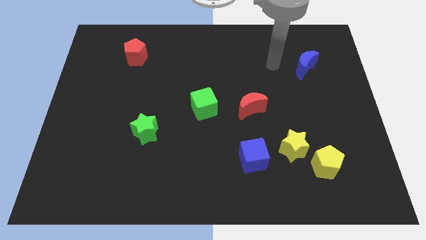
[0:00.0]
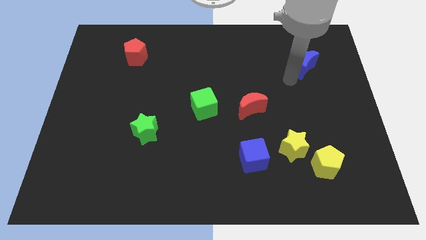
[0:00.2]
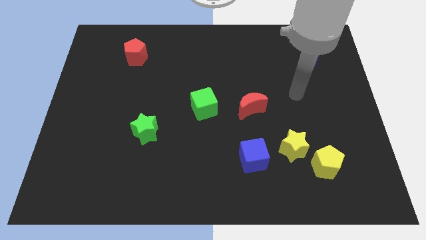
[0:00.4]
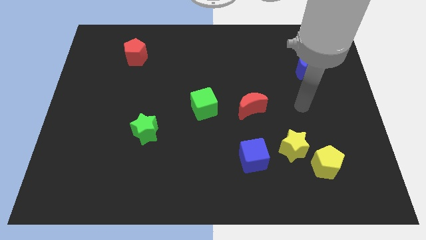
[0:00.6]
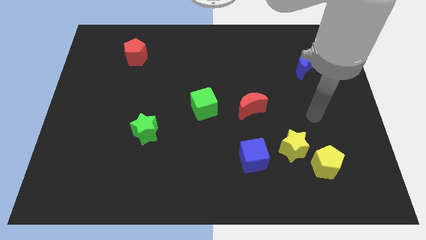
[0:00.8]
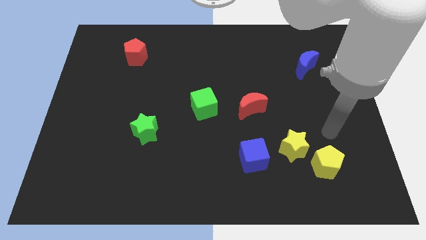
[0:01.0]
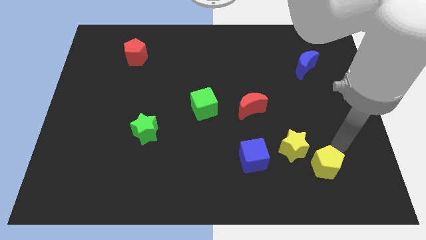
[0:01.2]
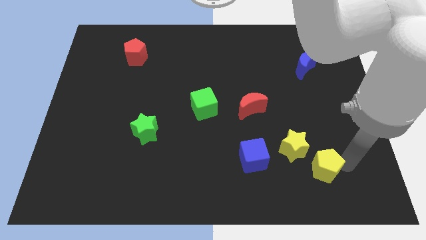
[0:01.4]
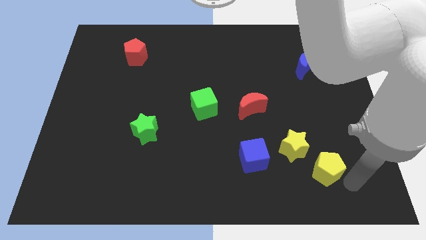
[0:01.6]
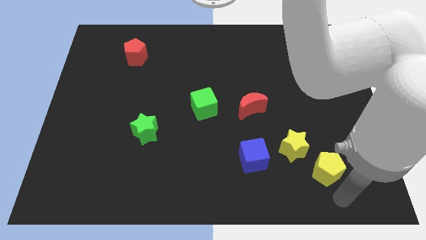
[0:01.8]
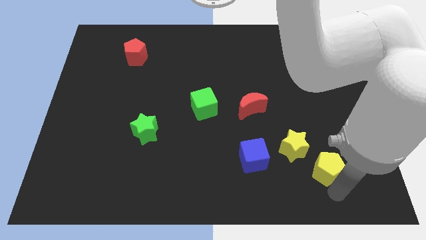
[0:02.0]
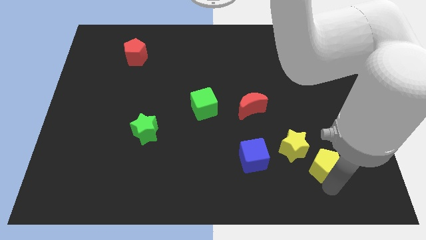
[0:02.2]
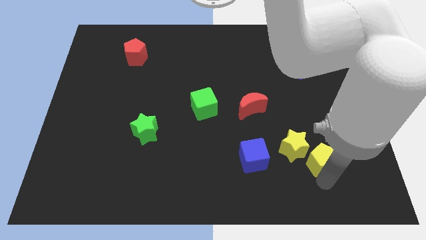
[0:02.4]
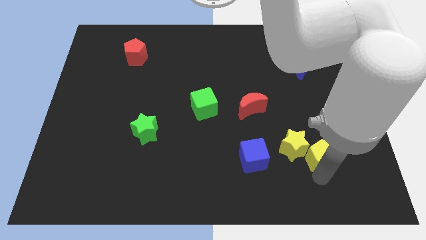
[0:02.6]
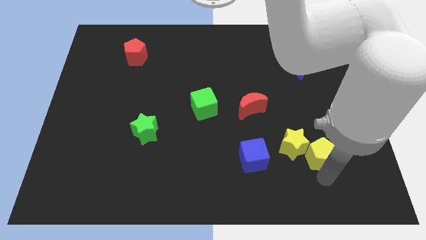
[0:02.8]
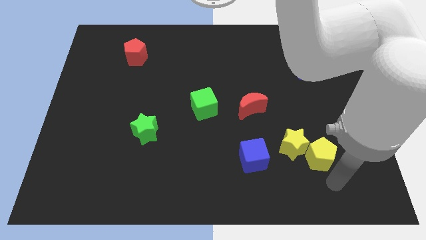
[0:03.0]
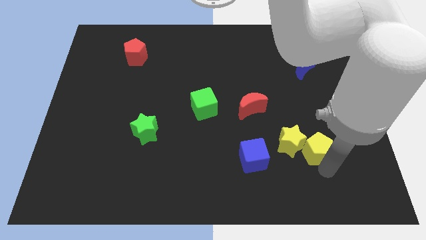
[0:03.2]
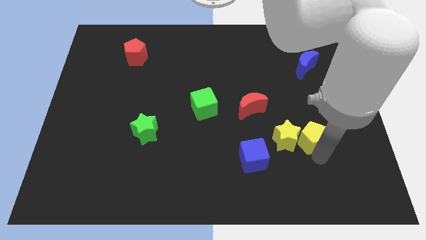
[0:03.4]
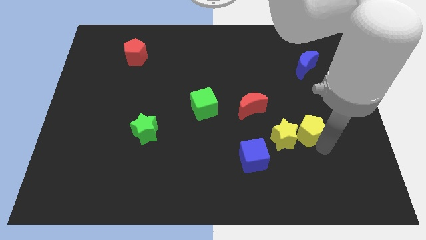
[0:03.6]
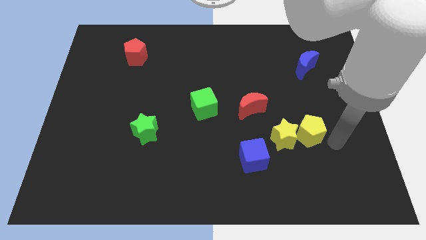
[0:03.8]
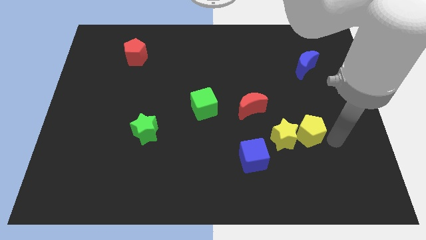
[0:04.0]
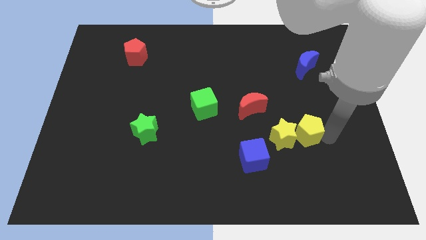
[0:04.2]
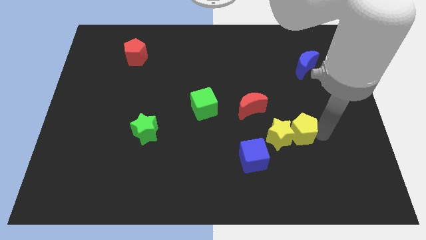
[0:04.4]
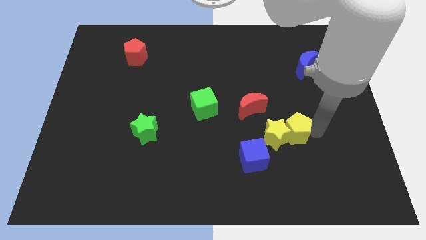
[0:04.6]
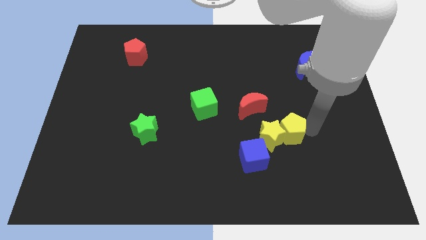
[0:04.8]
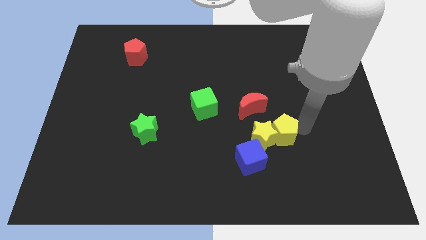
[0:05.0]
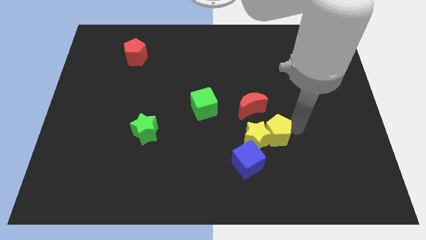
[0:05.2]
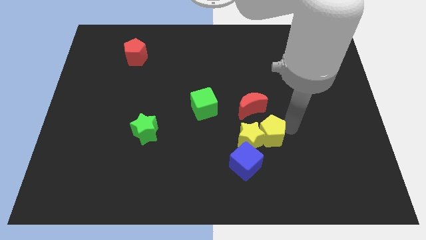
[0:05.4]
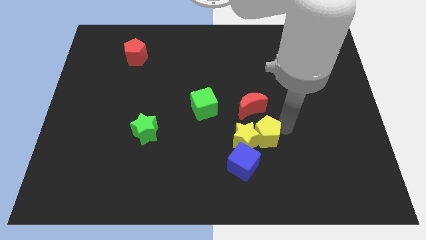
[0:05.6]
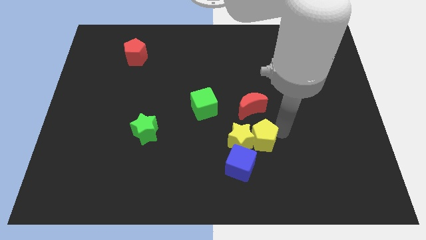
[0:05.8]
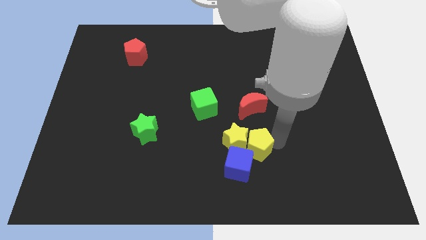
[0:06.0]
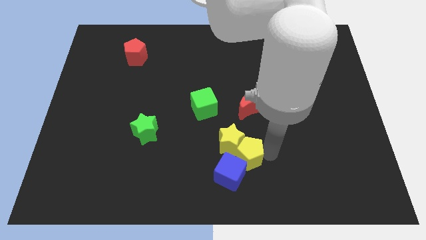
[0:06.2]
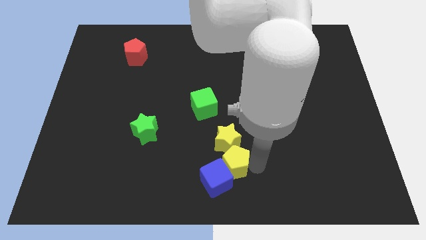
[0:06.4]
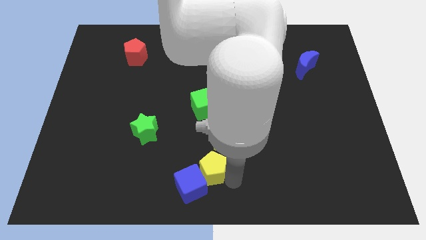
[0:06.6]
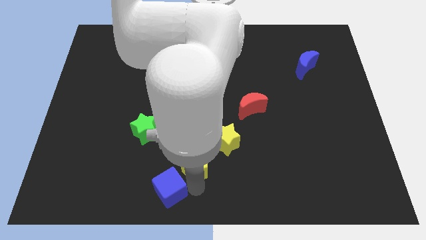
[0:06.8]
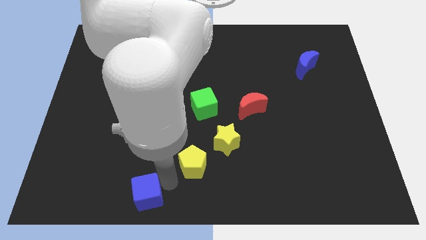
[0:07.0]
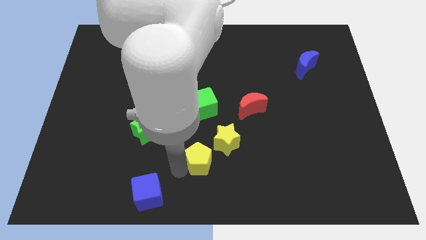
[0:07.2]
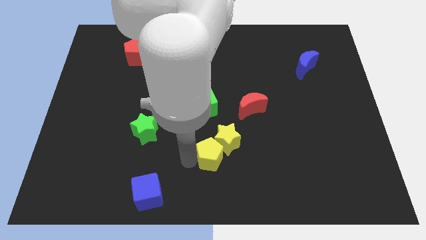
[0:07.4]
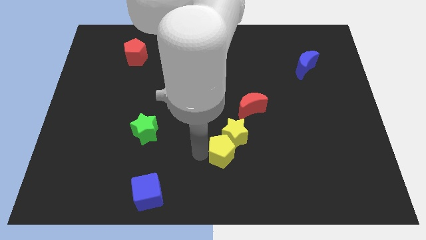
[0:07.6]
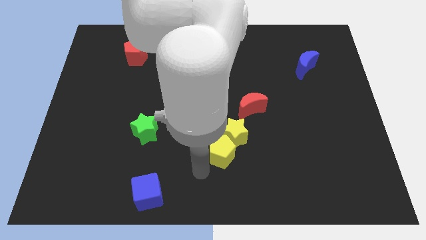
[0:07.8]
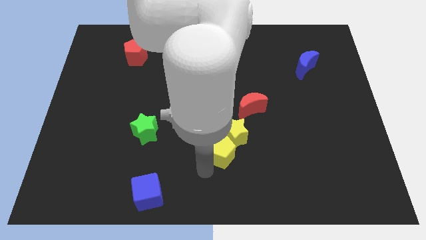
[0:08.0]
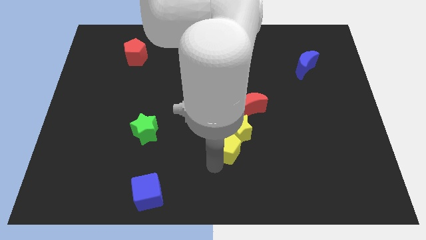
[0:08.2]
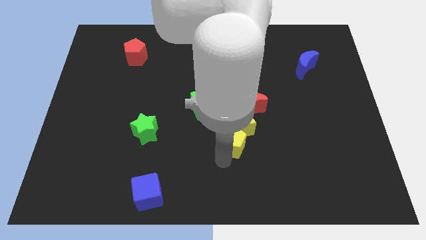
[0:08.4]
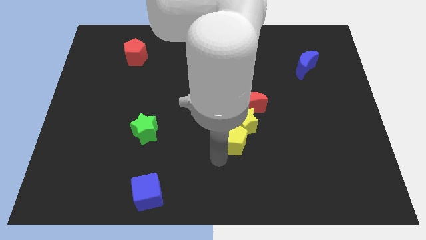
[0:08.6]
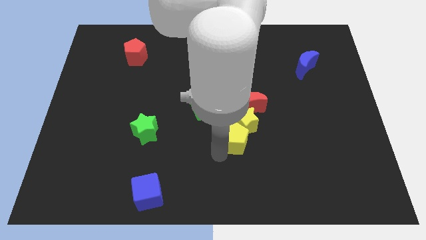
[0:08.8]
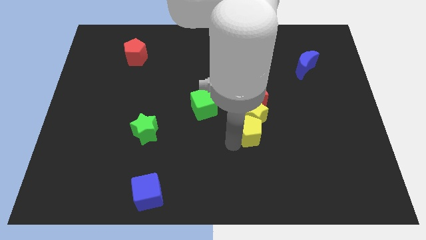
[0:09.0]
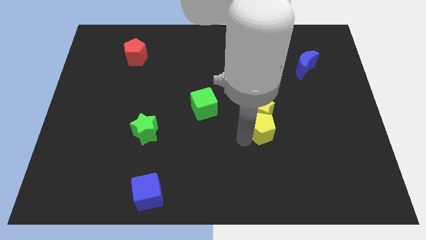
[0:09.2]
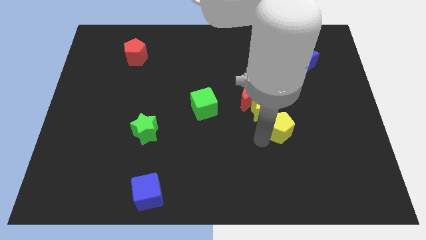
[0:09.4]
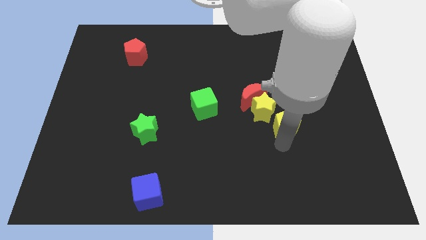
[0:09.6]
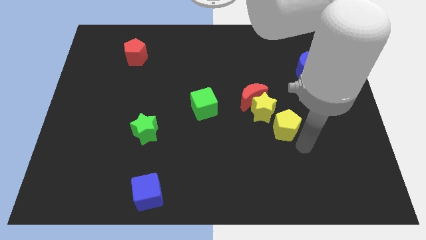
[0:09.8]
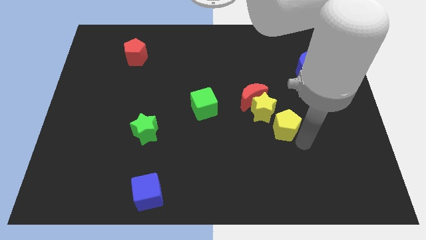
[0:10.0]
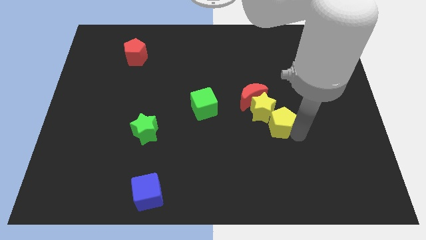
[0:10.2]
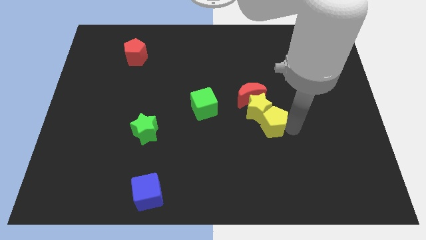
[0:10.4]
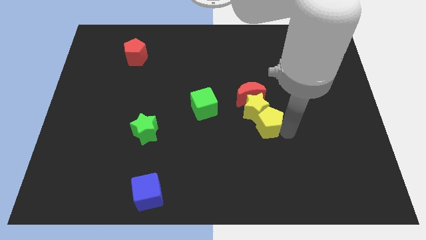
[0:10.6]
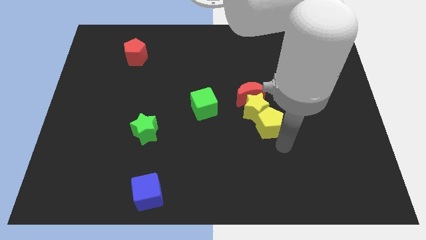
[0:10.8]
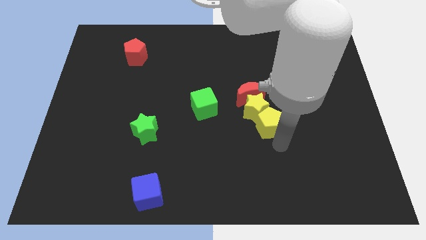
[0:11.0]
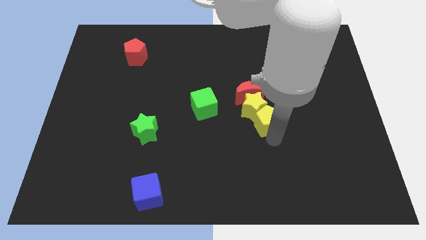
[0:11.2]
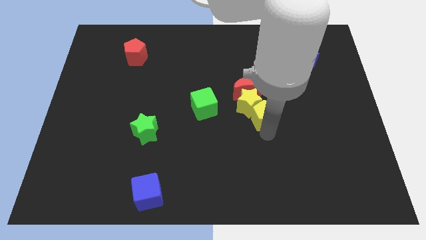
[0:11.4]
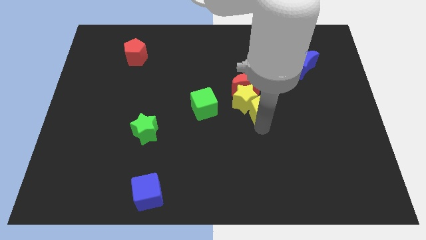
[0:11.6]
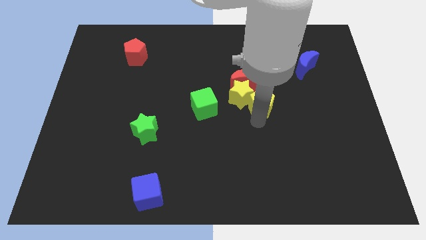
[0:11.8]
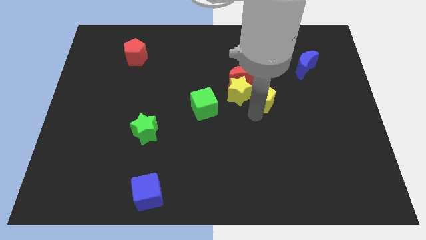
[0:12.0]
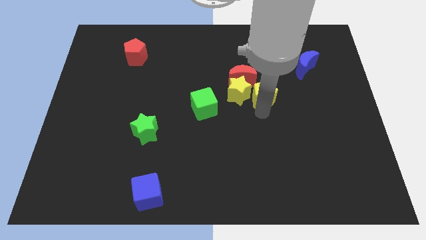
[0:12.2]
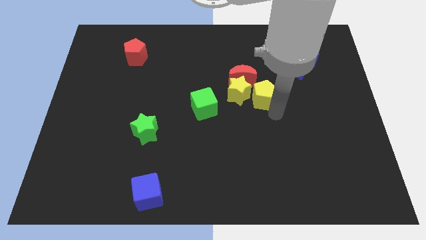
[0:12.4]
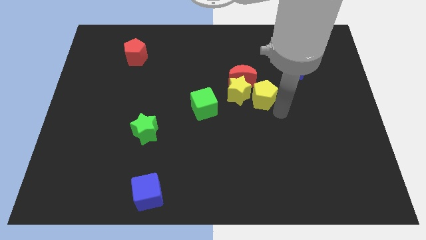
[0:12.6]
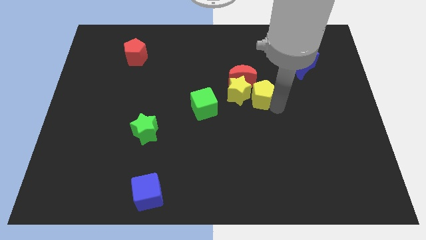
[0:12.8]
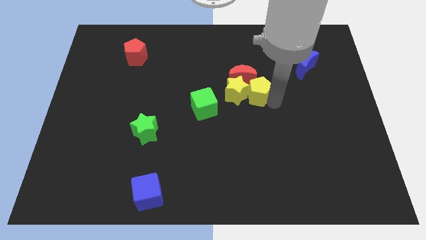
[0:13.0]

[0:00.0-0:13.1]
put the yellow pentagon close to the red moon
